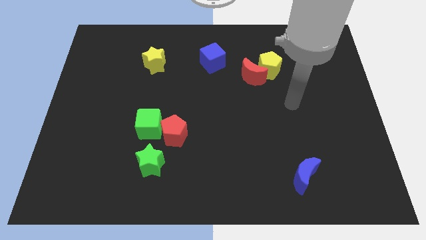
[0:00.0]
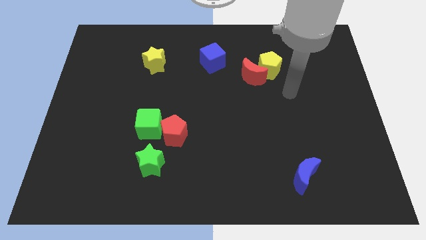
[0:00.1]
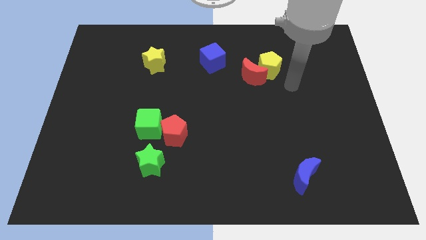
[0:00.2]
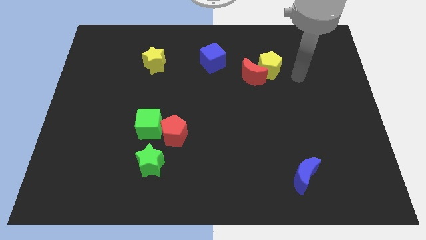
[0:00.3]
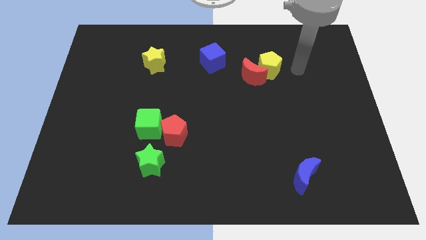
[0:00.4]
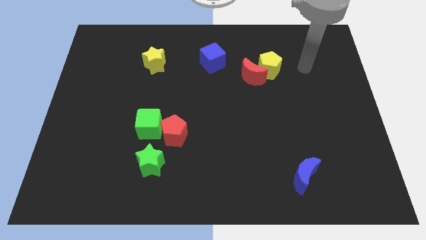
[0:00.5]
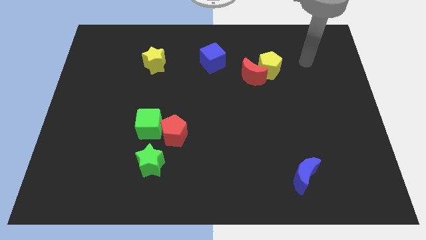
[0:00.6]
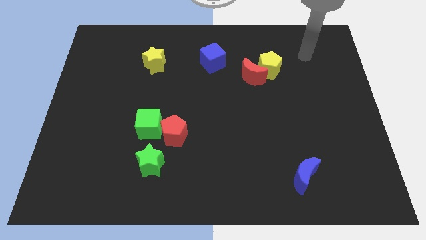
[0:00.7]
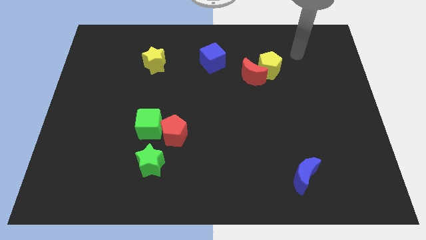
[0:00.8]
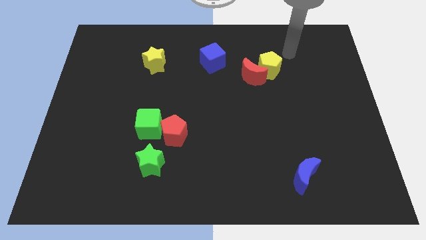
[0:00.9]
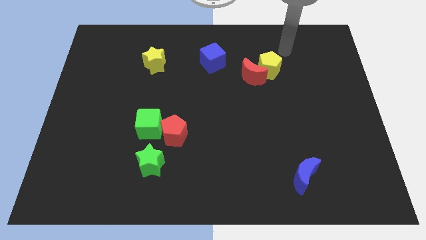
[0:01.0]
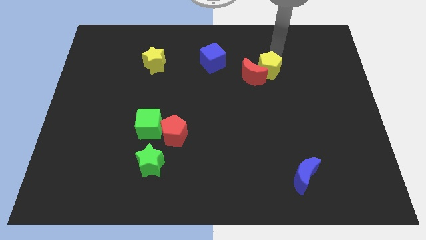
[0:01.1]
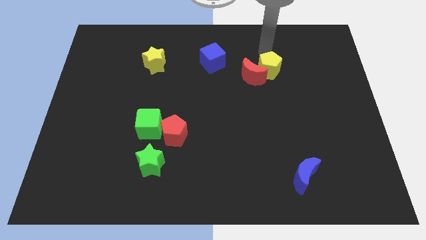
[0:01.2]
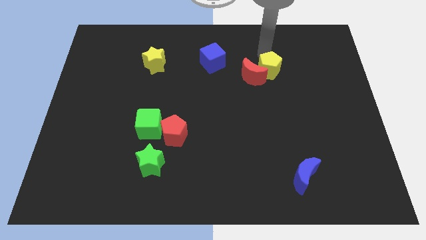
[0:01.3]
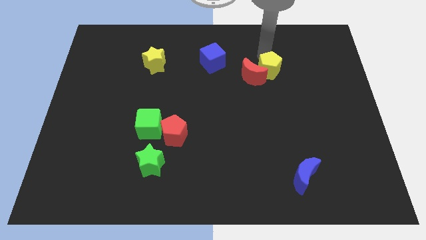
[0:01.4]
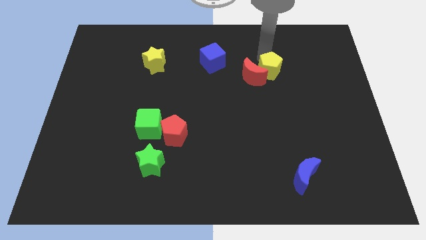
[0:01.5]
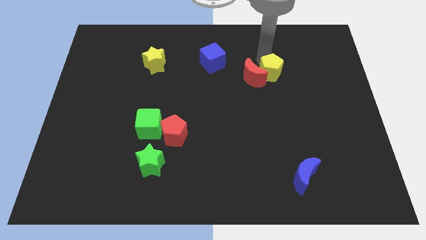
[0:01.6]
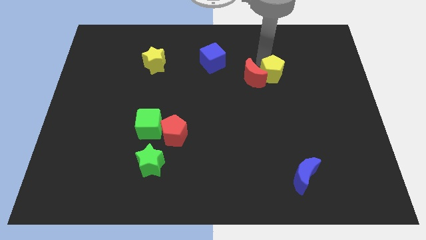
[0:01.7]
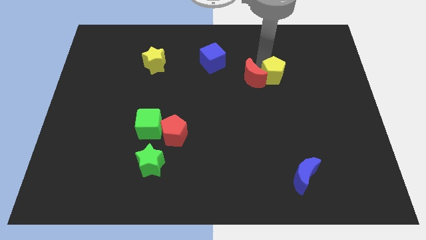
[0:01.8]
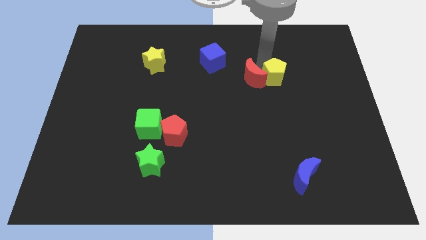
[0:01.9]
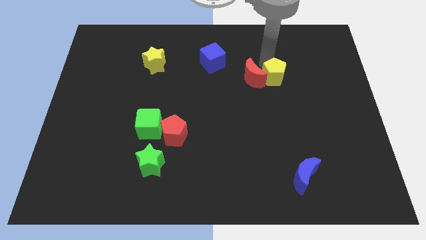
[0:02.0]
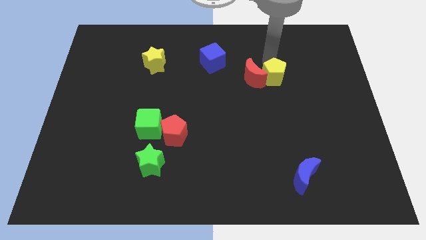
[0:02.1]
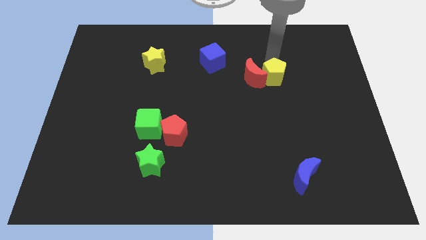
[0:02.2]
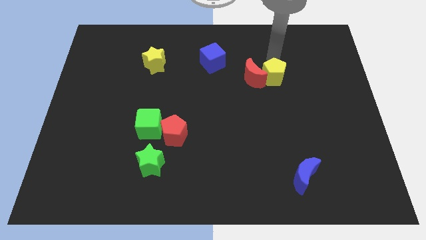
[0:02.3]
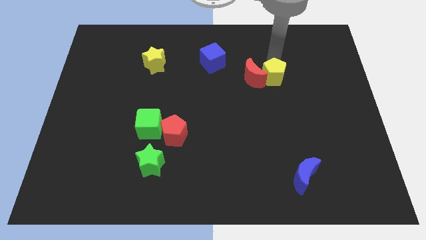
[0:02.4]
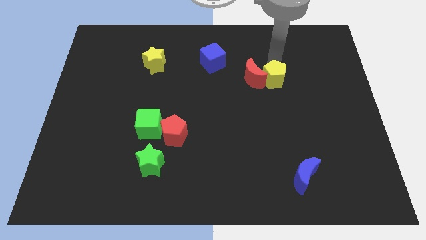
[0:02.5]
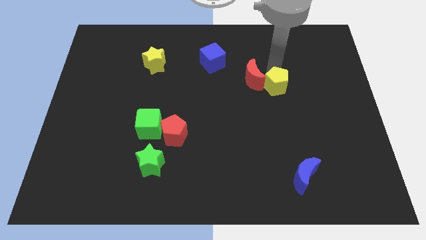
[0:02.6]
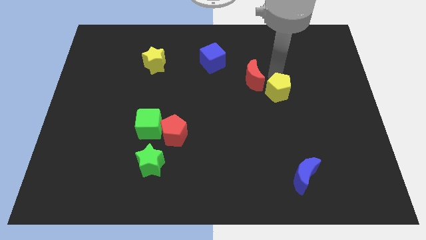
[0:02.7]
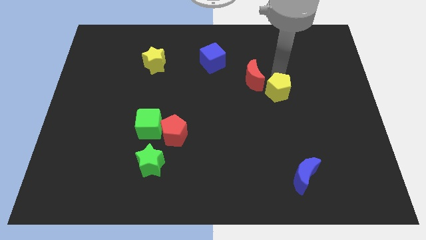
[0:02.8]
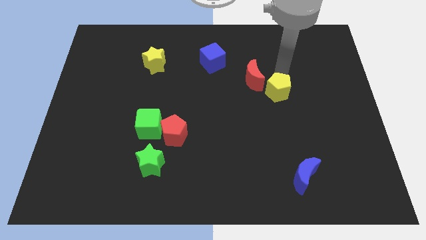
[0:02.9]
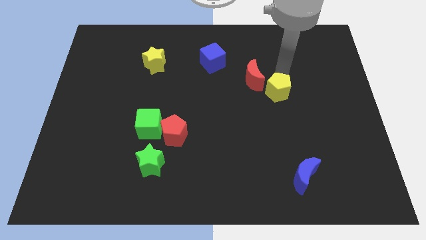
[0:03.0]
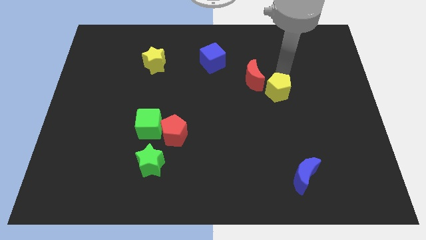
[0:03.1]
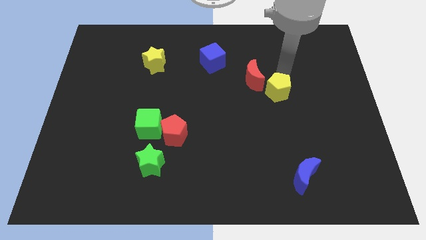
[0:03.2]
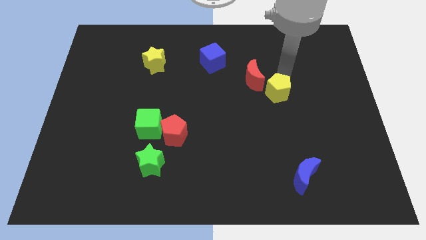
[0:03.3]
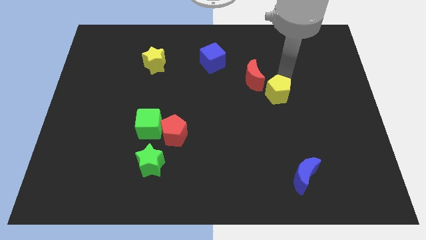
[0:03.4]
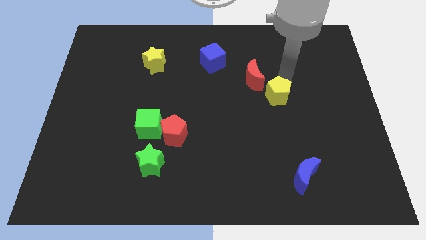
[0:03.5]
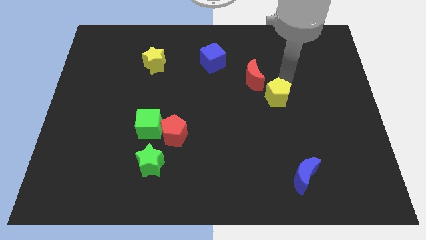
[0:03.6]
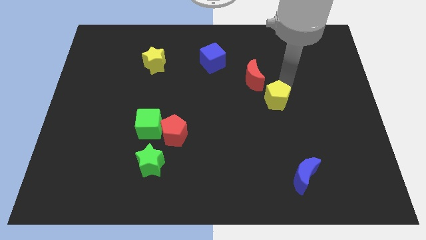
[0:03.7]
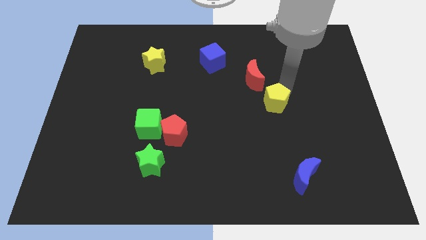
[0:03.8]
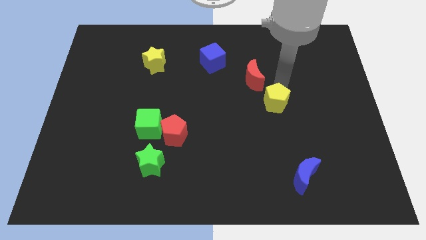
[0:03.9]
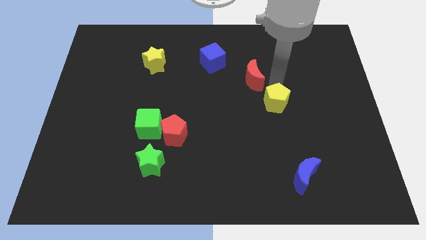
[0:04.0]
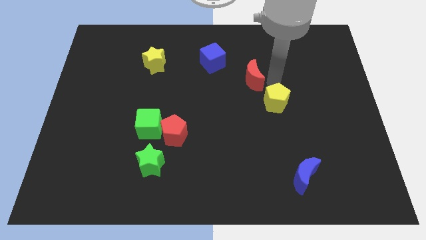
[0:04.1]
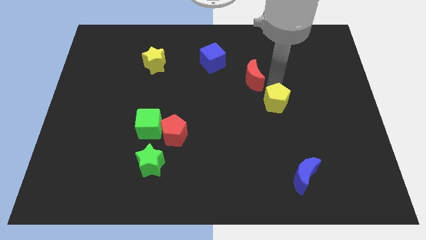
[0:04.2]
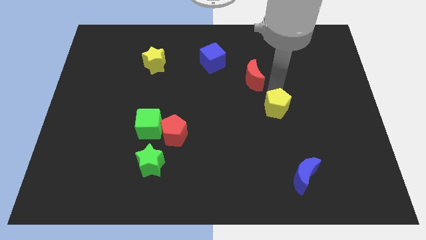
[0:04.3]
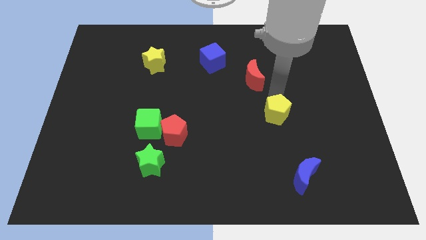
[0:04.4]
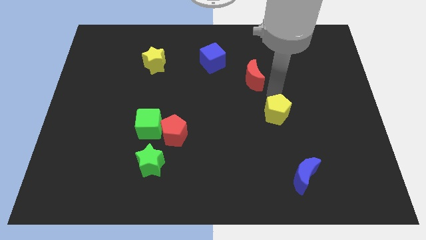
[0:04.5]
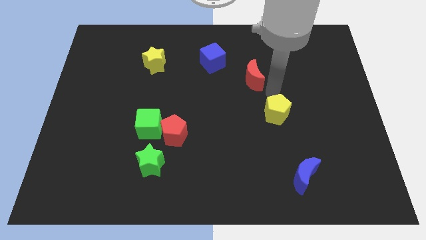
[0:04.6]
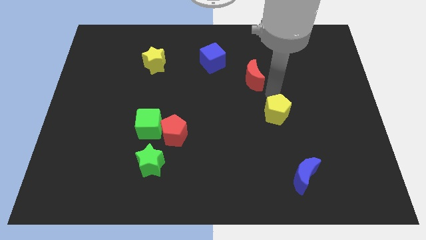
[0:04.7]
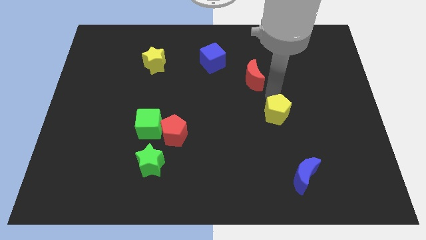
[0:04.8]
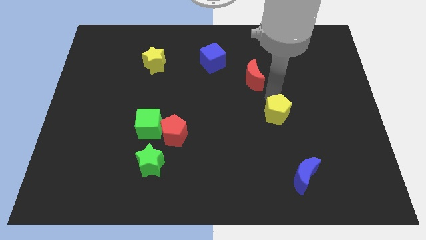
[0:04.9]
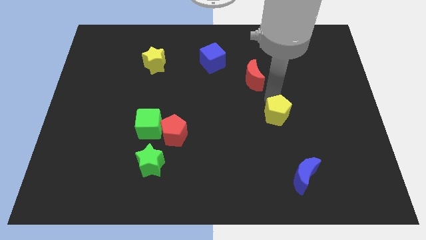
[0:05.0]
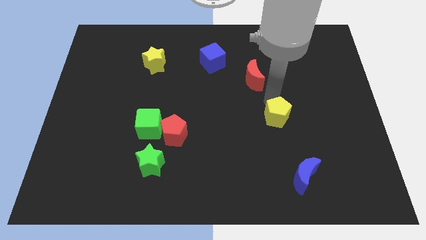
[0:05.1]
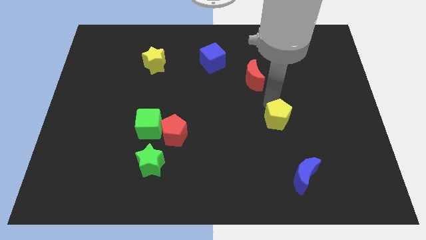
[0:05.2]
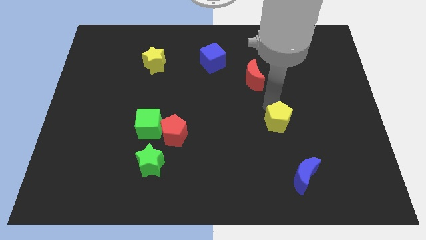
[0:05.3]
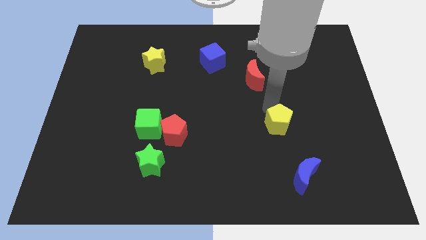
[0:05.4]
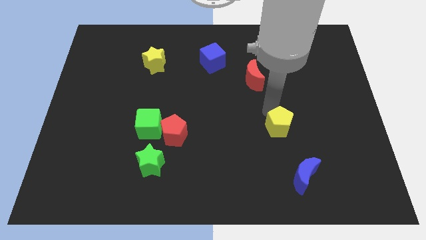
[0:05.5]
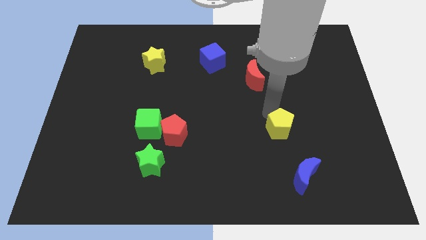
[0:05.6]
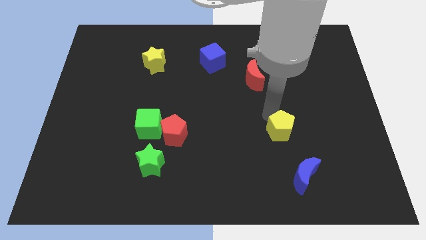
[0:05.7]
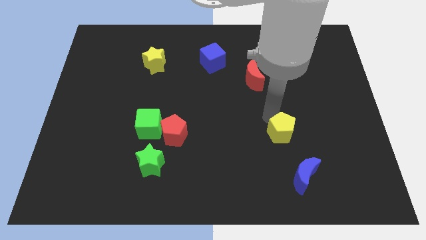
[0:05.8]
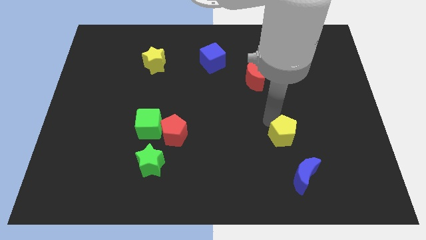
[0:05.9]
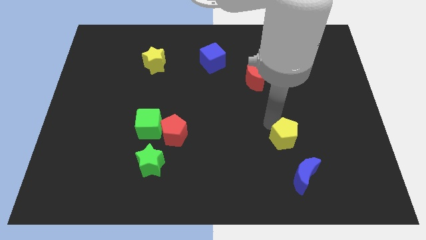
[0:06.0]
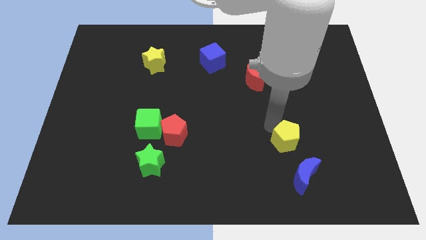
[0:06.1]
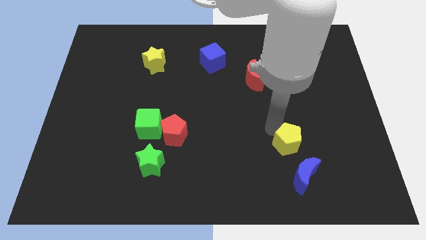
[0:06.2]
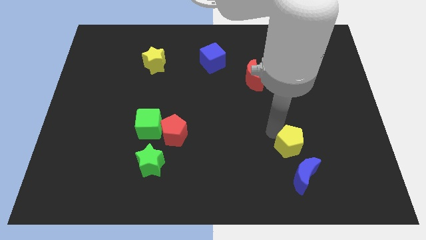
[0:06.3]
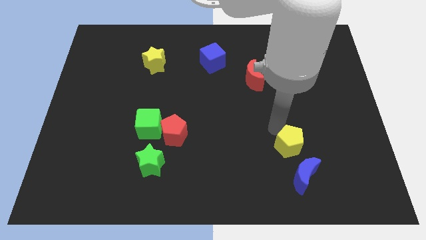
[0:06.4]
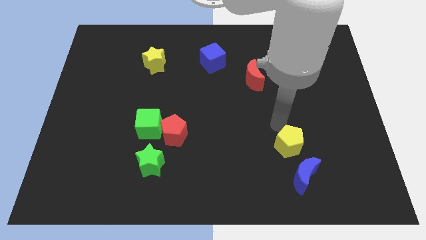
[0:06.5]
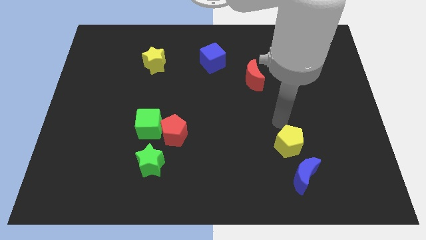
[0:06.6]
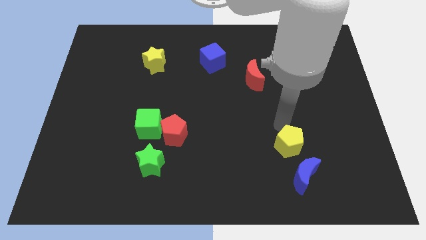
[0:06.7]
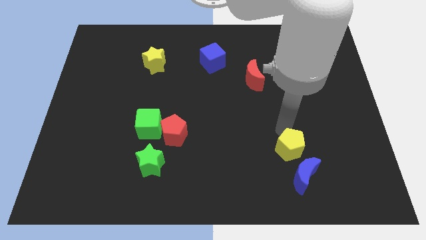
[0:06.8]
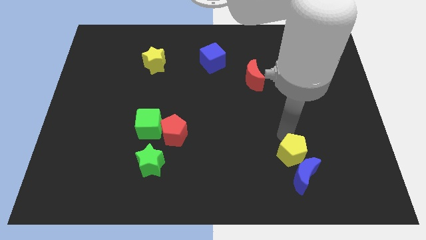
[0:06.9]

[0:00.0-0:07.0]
put the yellow pentagon towards the blue moon
